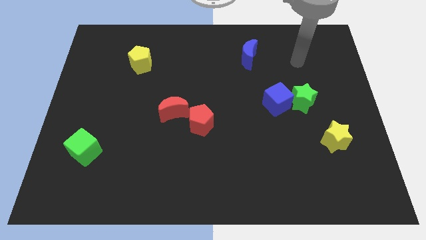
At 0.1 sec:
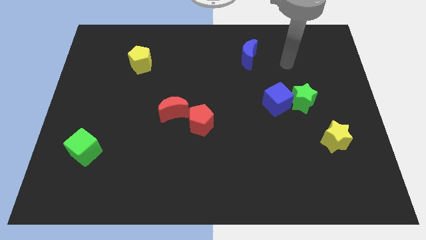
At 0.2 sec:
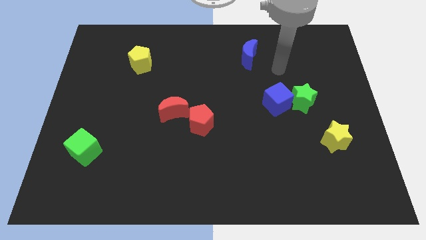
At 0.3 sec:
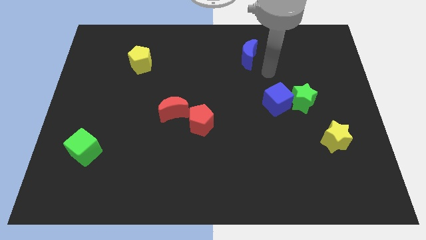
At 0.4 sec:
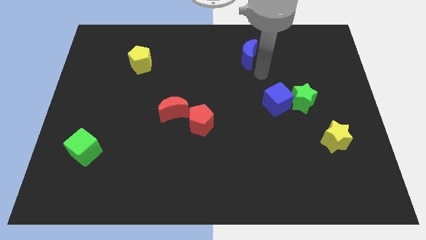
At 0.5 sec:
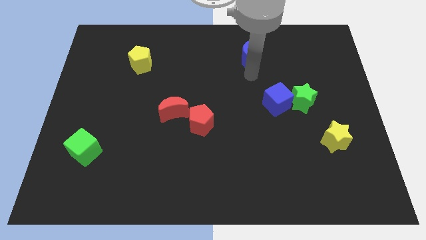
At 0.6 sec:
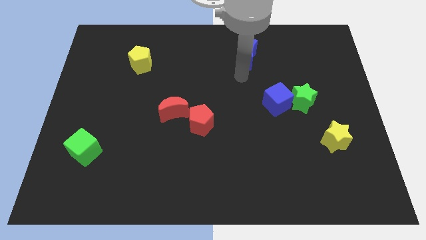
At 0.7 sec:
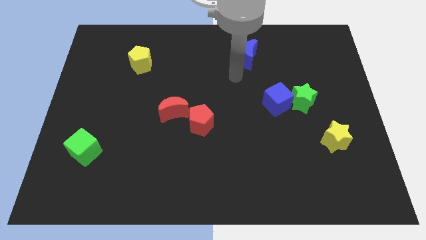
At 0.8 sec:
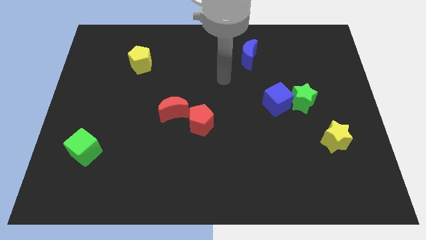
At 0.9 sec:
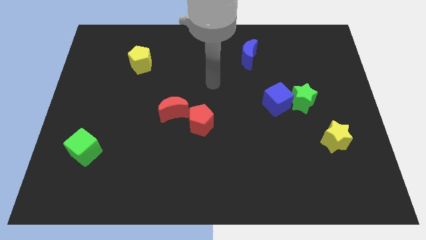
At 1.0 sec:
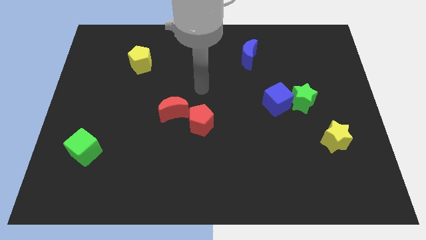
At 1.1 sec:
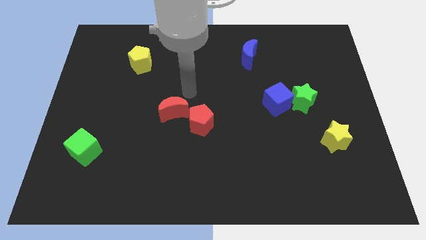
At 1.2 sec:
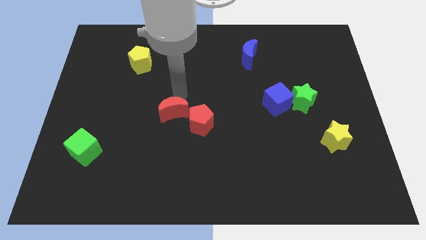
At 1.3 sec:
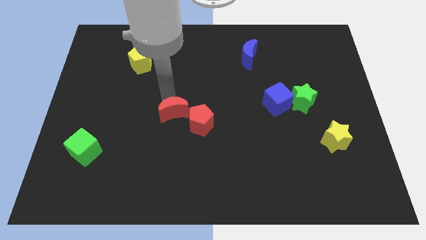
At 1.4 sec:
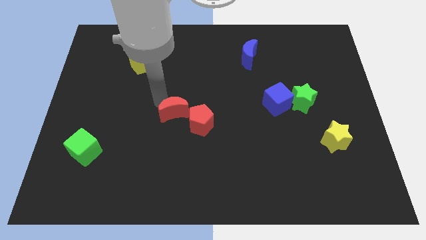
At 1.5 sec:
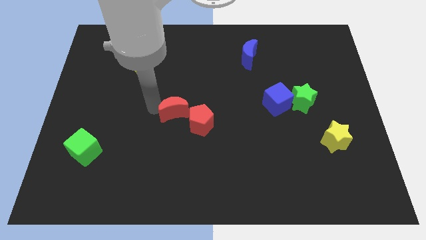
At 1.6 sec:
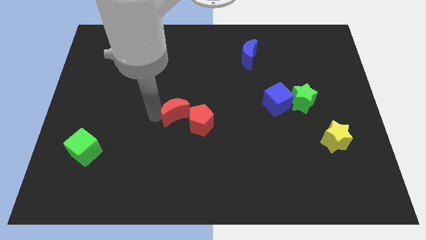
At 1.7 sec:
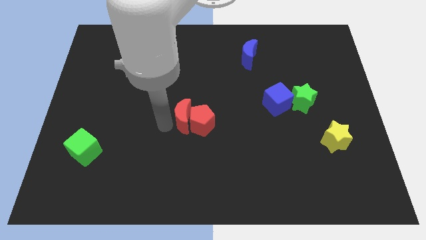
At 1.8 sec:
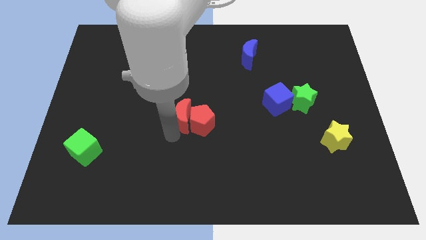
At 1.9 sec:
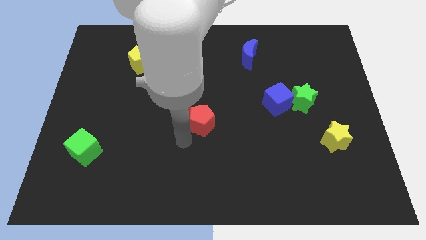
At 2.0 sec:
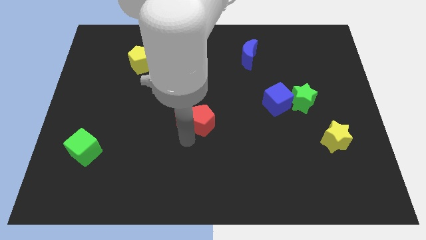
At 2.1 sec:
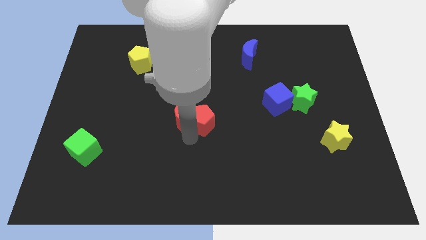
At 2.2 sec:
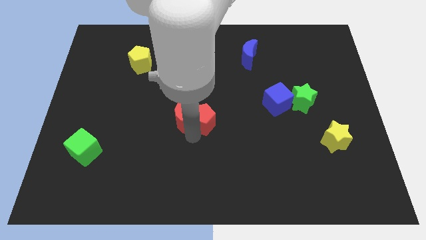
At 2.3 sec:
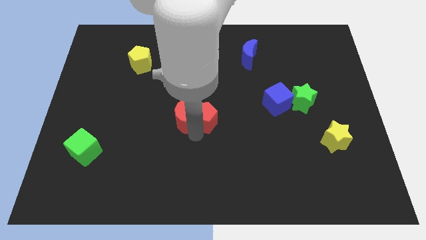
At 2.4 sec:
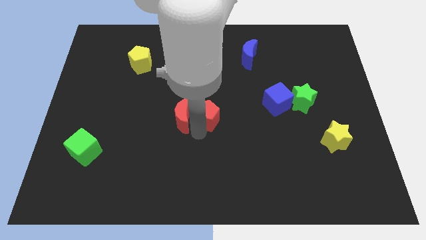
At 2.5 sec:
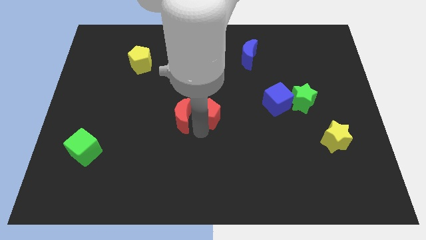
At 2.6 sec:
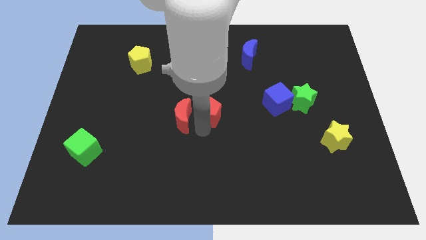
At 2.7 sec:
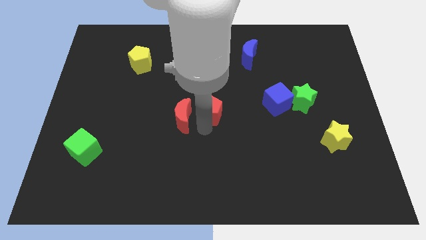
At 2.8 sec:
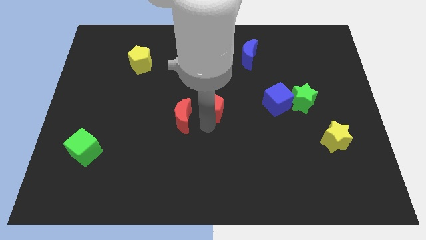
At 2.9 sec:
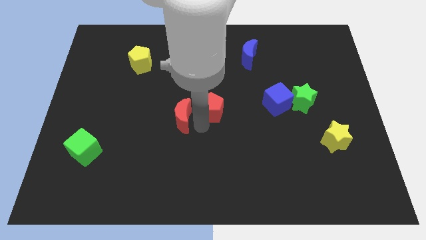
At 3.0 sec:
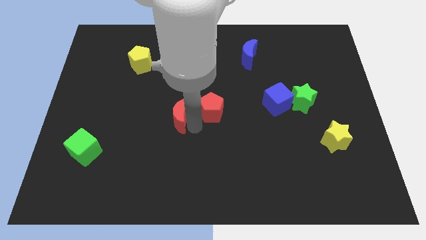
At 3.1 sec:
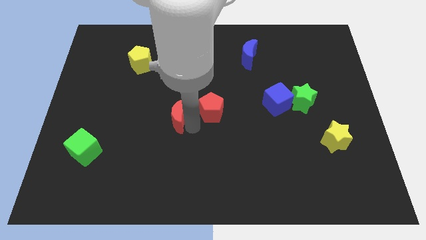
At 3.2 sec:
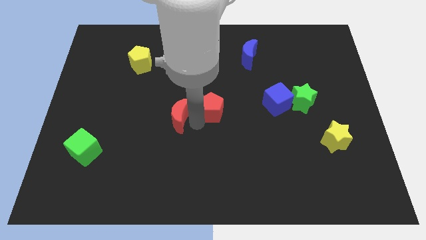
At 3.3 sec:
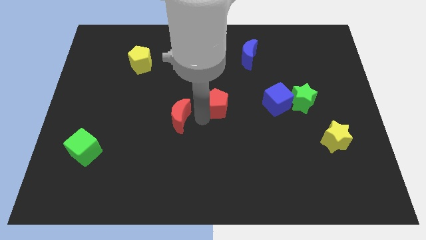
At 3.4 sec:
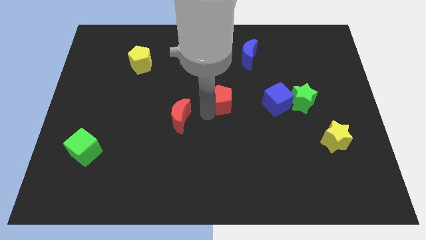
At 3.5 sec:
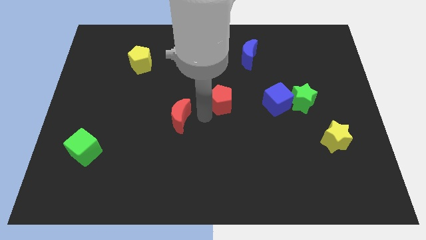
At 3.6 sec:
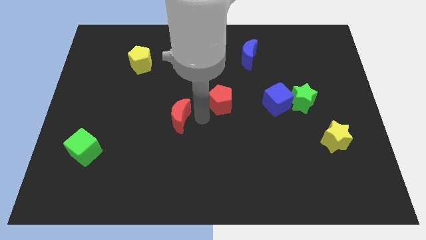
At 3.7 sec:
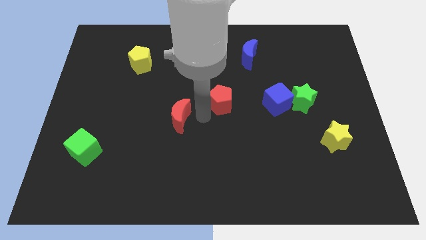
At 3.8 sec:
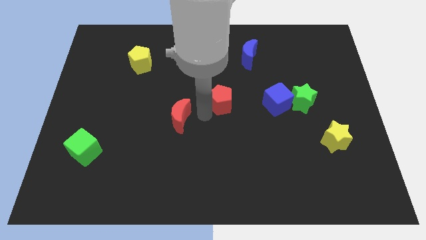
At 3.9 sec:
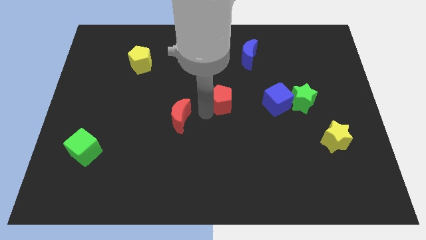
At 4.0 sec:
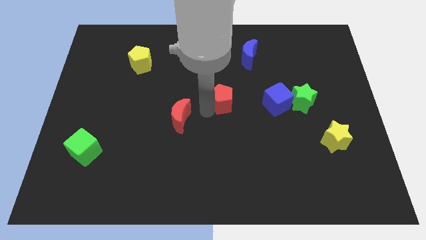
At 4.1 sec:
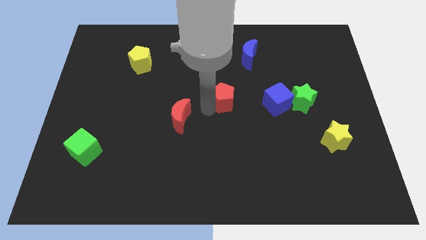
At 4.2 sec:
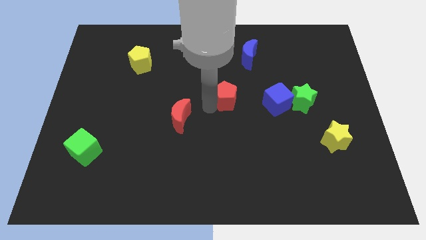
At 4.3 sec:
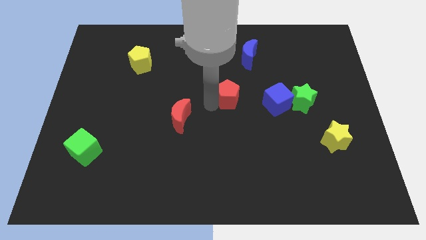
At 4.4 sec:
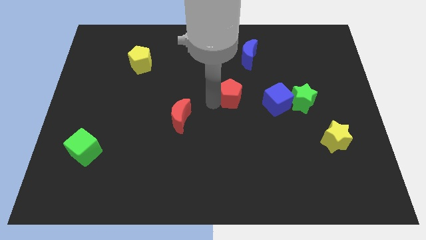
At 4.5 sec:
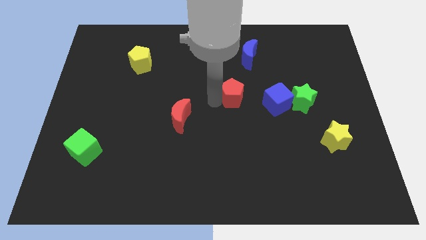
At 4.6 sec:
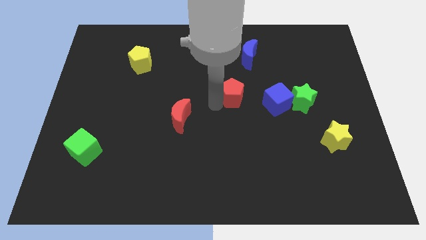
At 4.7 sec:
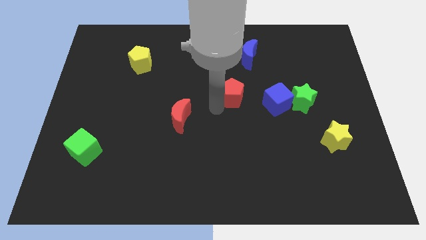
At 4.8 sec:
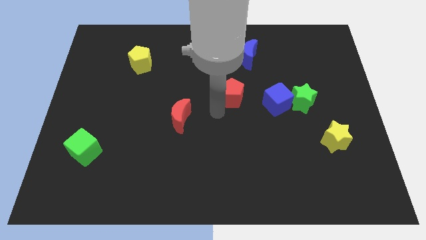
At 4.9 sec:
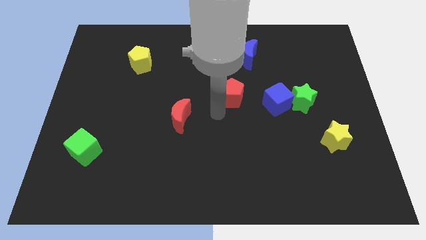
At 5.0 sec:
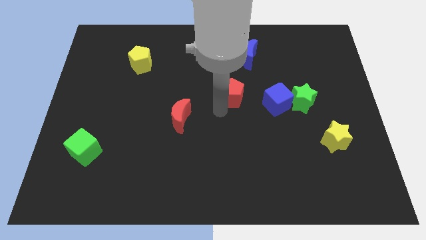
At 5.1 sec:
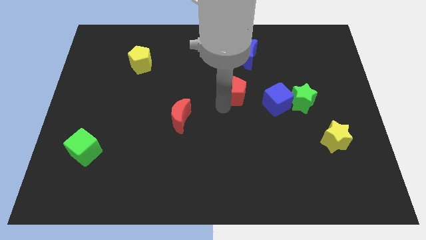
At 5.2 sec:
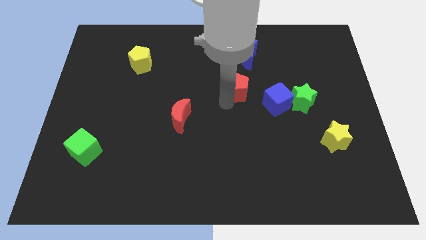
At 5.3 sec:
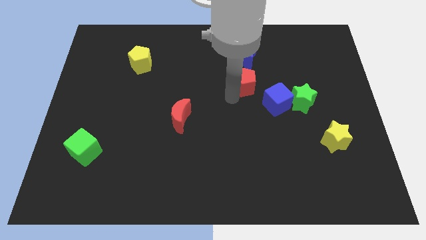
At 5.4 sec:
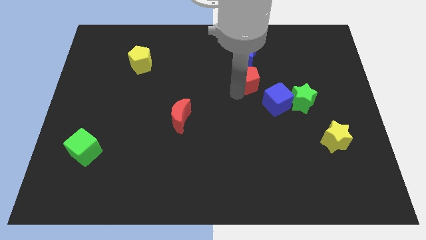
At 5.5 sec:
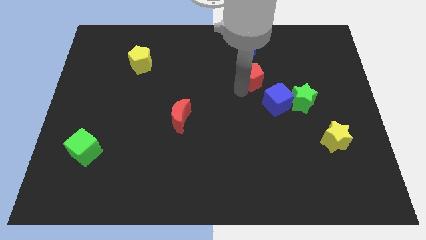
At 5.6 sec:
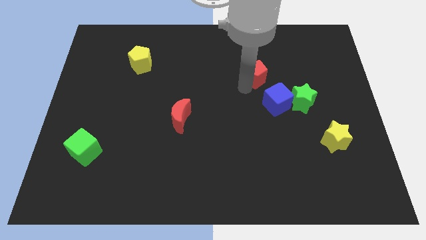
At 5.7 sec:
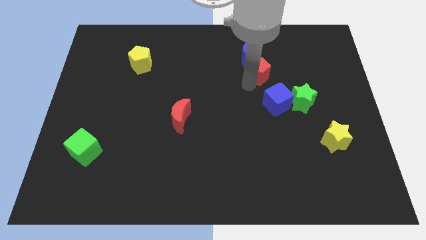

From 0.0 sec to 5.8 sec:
put the red pentagon close to the blue moon
